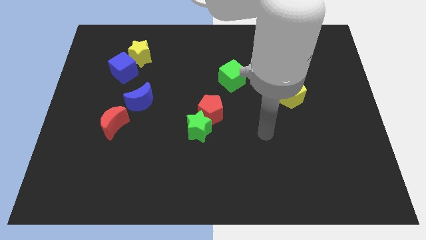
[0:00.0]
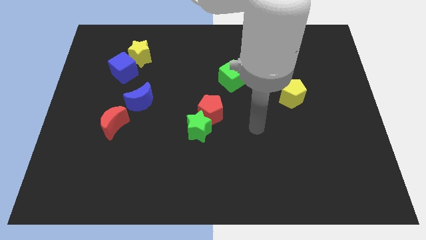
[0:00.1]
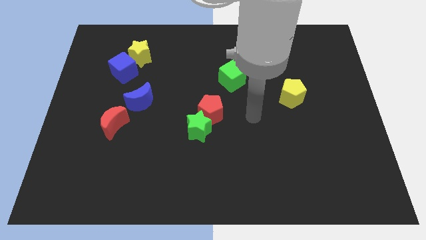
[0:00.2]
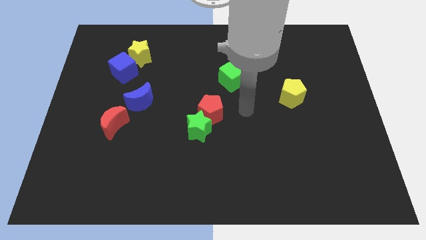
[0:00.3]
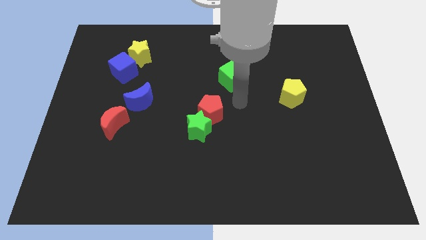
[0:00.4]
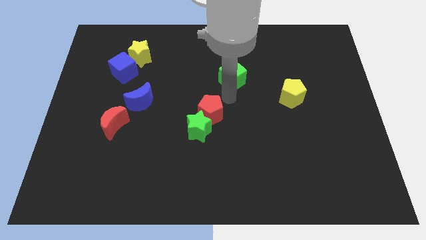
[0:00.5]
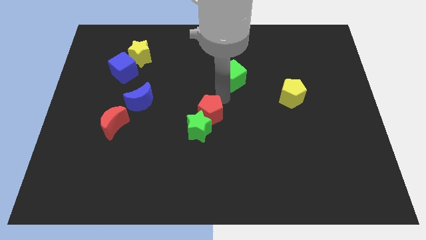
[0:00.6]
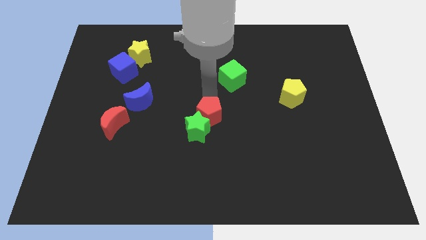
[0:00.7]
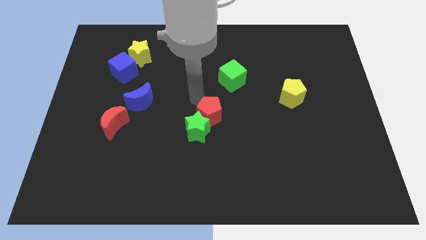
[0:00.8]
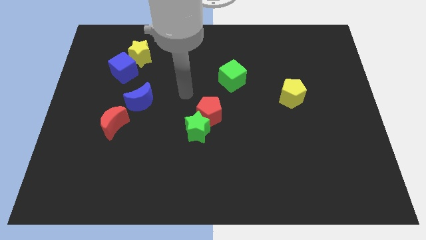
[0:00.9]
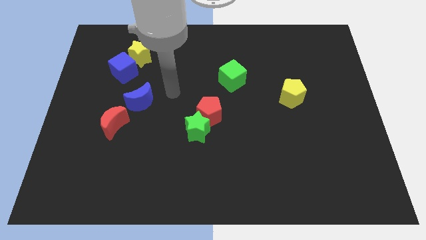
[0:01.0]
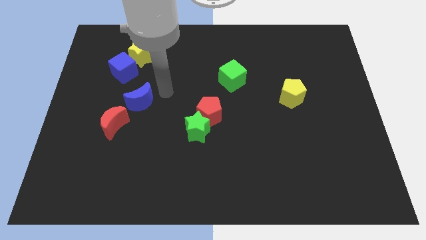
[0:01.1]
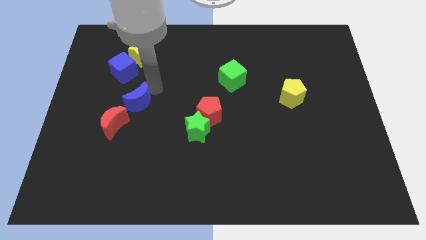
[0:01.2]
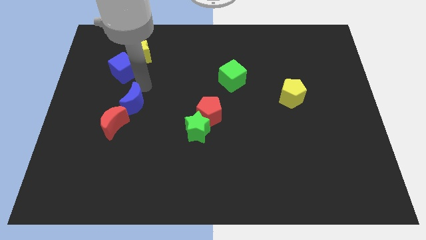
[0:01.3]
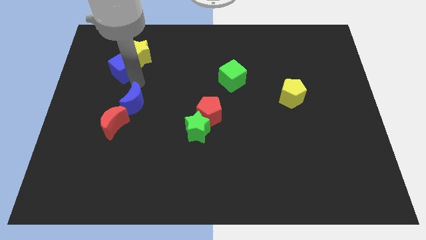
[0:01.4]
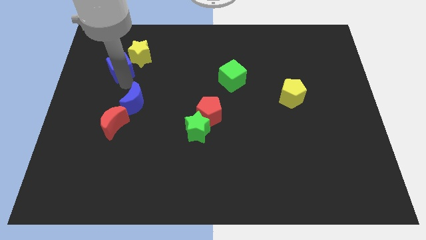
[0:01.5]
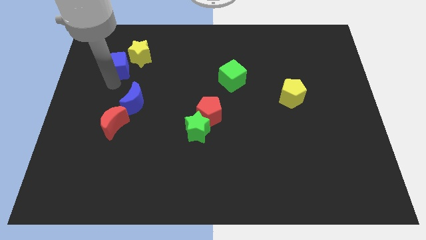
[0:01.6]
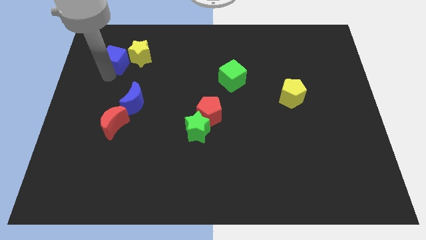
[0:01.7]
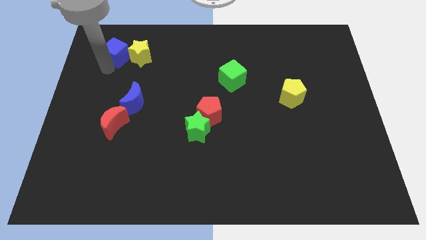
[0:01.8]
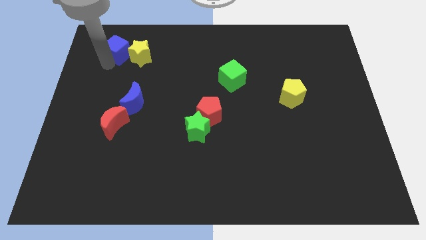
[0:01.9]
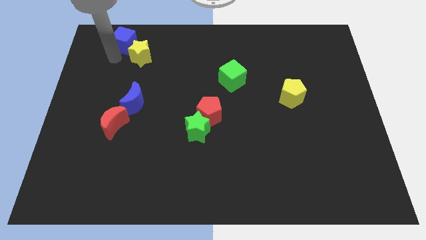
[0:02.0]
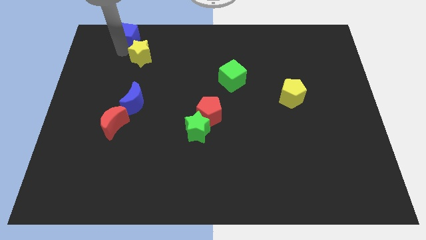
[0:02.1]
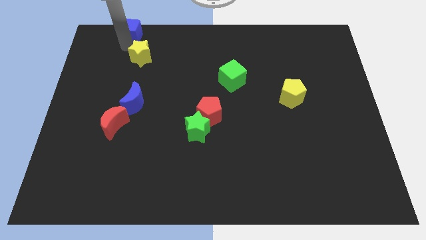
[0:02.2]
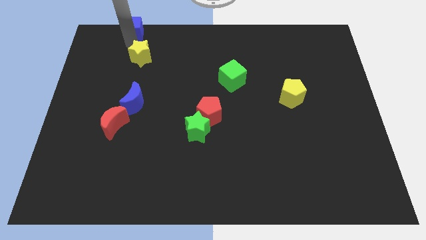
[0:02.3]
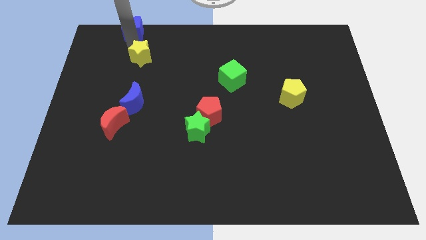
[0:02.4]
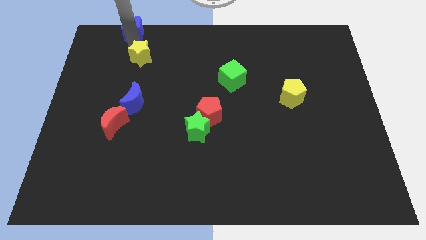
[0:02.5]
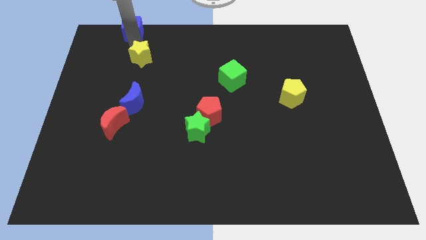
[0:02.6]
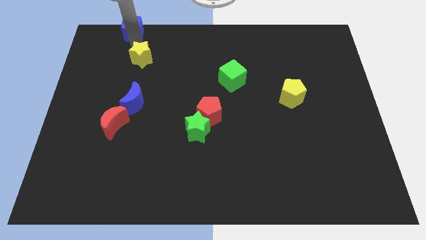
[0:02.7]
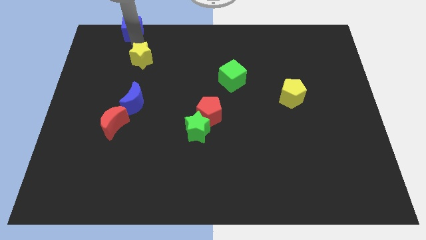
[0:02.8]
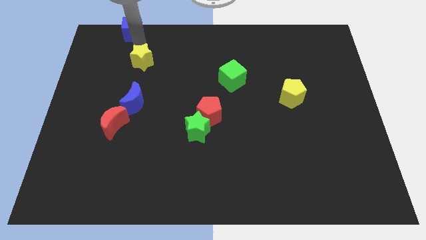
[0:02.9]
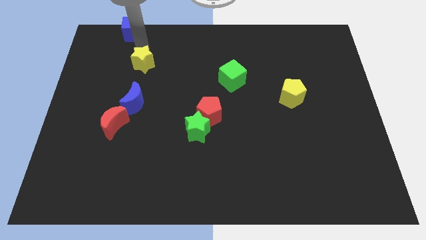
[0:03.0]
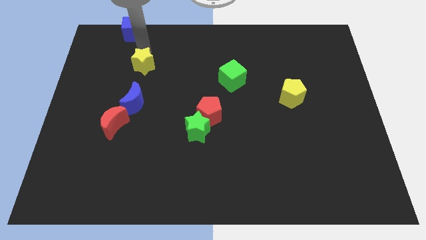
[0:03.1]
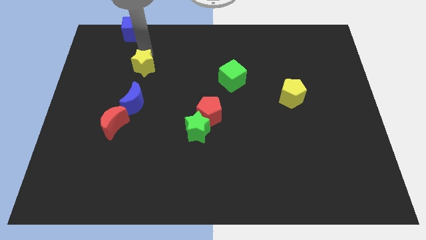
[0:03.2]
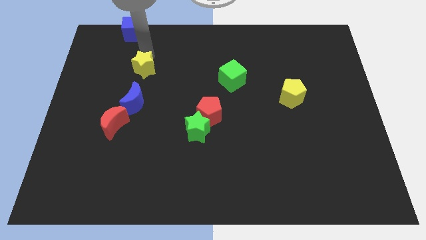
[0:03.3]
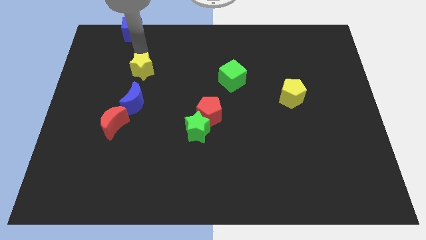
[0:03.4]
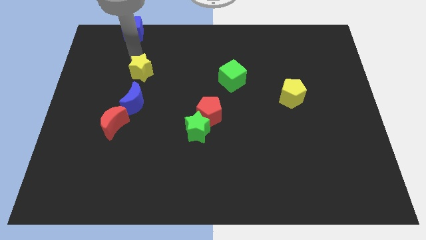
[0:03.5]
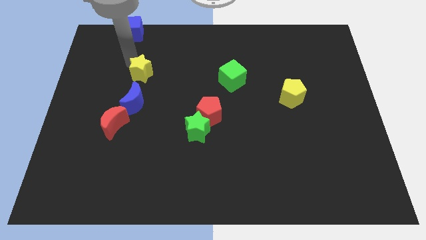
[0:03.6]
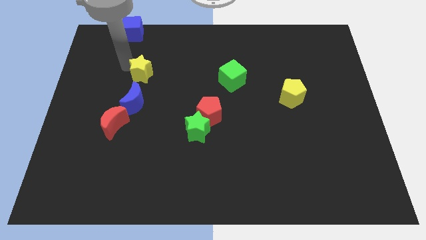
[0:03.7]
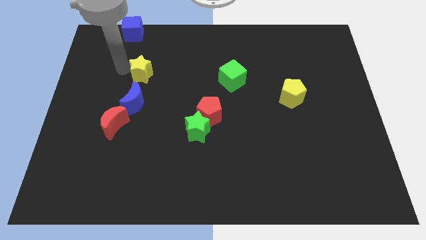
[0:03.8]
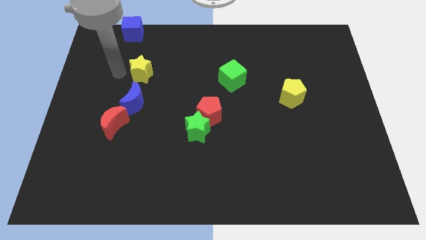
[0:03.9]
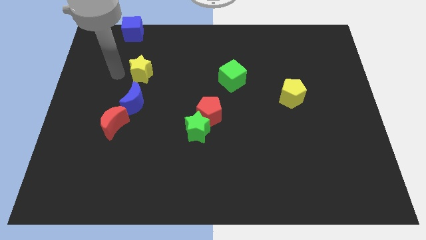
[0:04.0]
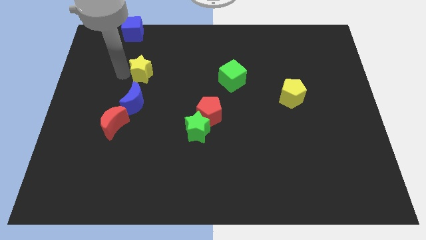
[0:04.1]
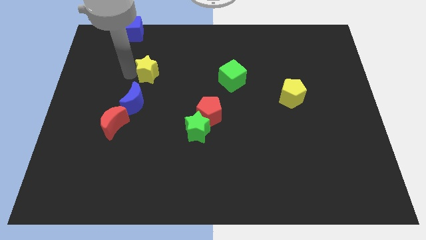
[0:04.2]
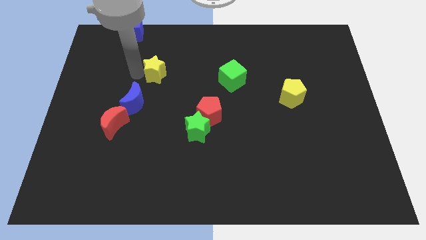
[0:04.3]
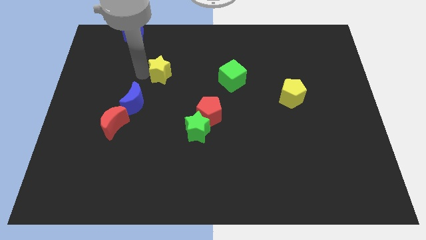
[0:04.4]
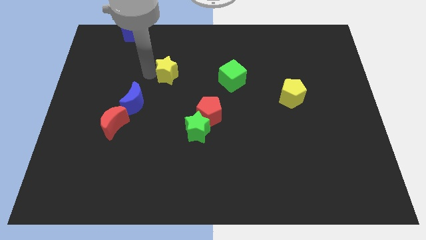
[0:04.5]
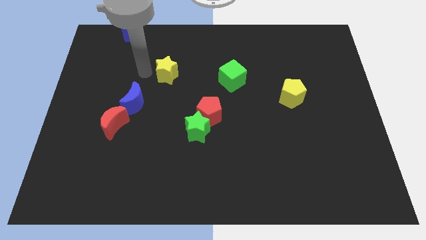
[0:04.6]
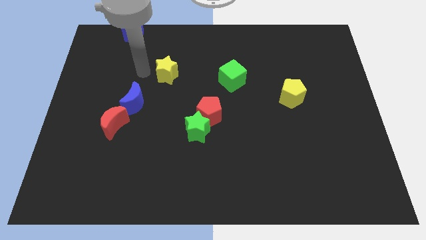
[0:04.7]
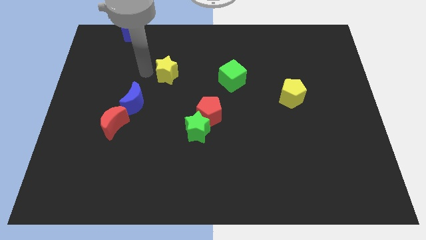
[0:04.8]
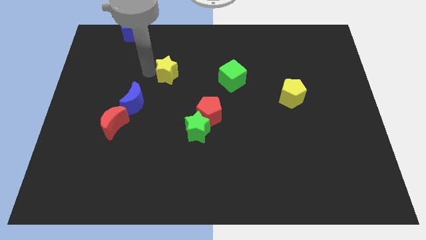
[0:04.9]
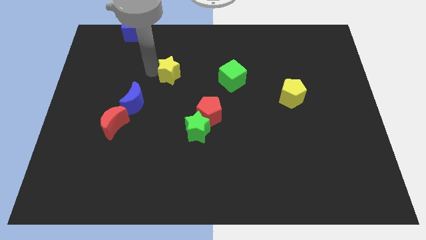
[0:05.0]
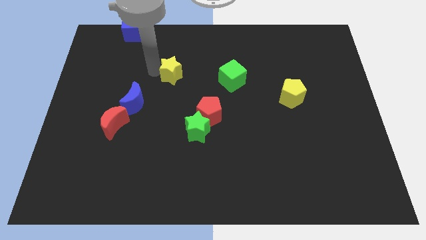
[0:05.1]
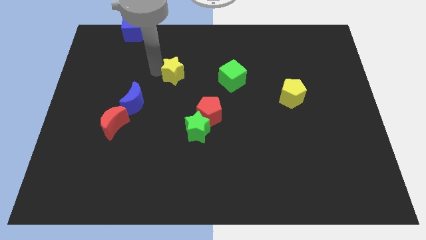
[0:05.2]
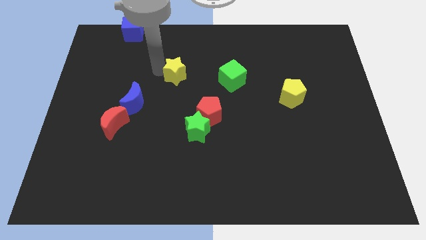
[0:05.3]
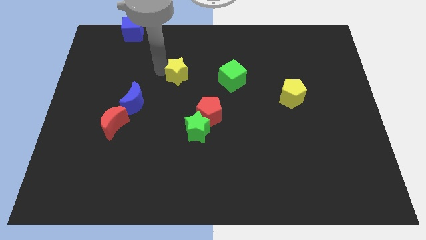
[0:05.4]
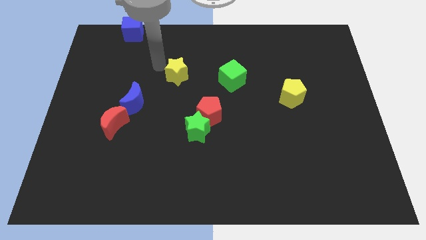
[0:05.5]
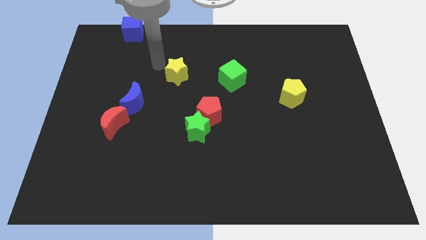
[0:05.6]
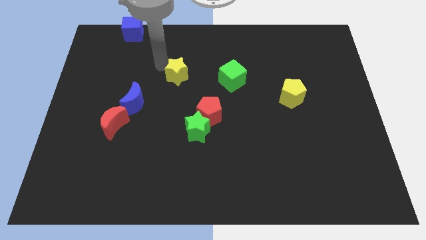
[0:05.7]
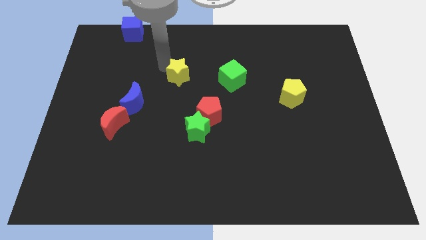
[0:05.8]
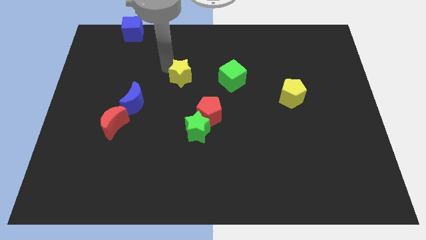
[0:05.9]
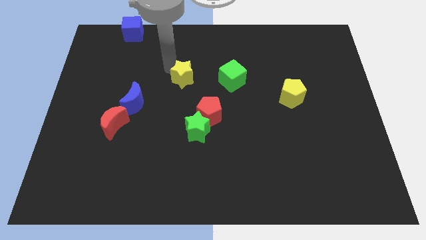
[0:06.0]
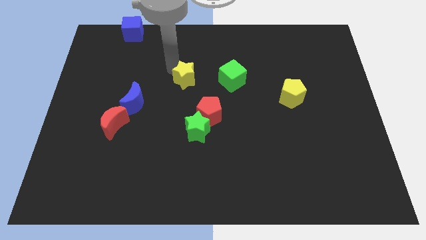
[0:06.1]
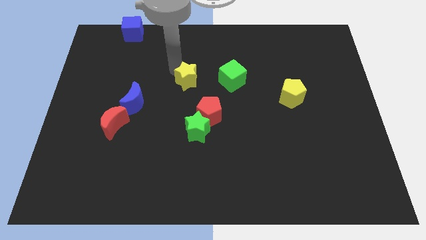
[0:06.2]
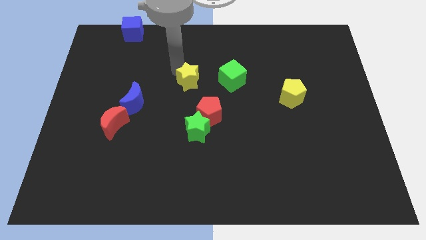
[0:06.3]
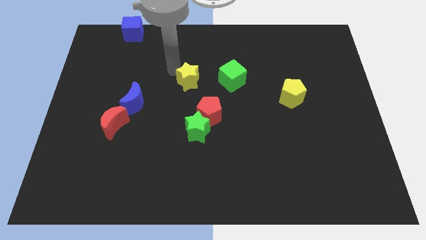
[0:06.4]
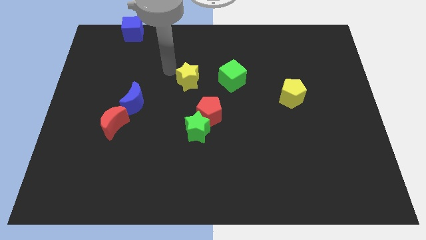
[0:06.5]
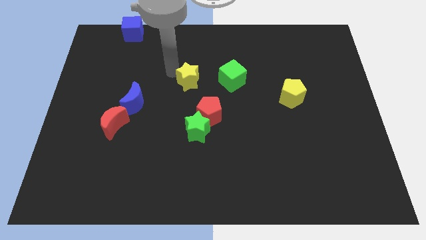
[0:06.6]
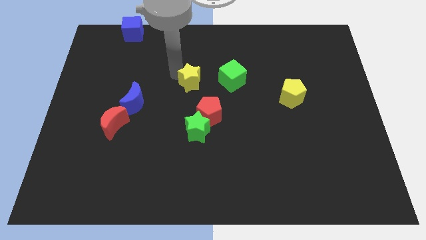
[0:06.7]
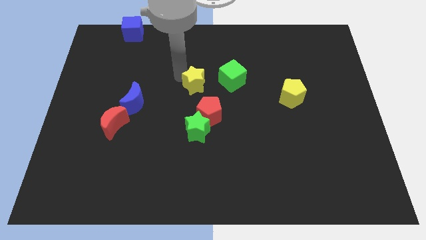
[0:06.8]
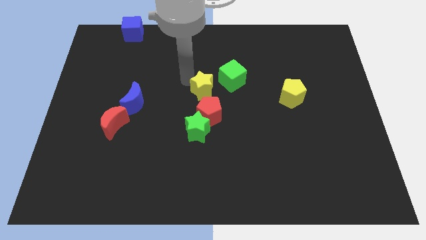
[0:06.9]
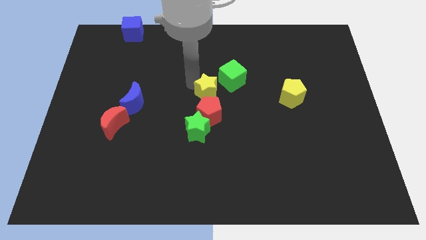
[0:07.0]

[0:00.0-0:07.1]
slide the yellow star downwards and right diagonally

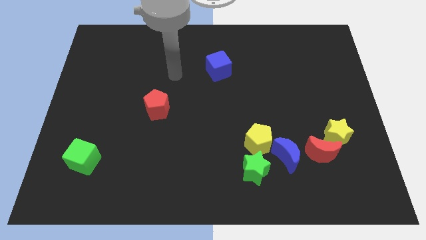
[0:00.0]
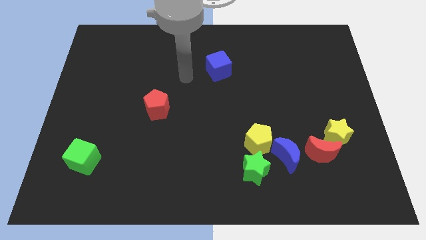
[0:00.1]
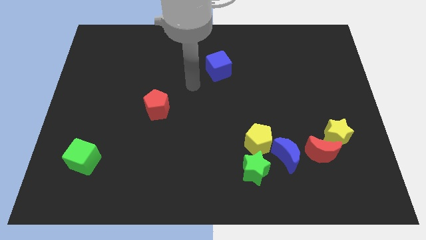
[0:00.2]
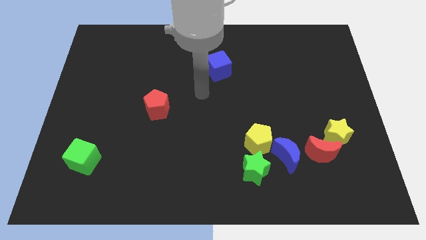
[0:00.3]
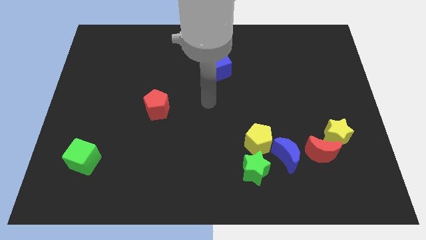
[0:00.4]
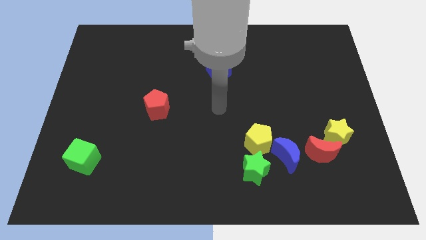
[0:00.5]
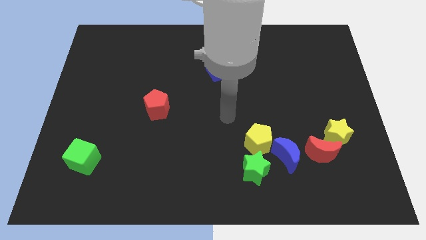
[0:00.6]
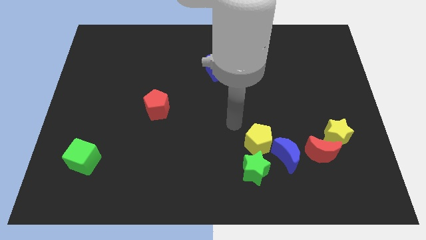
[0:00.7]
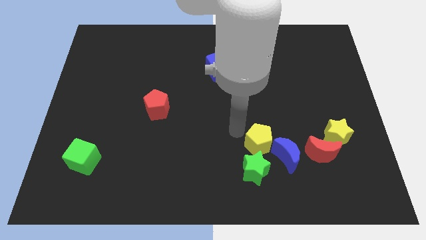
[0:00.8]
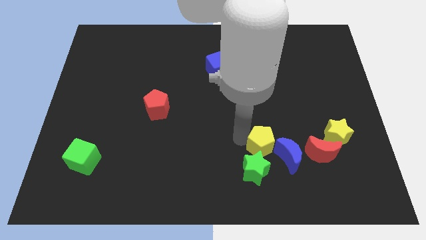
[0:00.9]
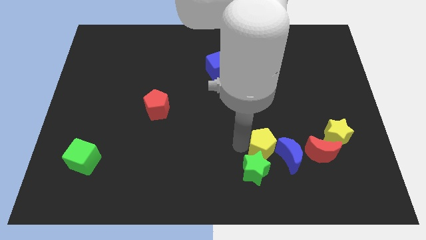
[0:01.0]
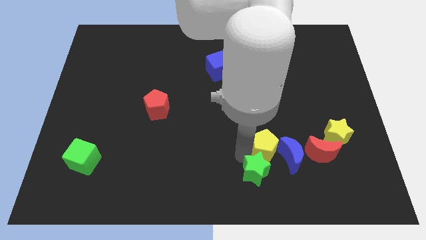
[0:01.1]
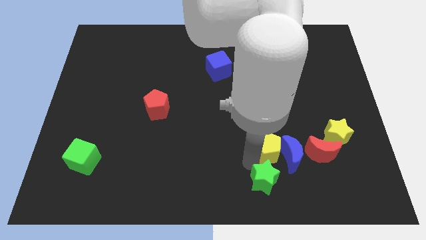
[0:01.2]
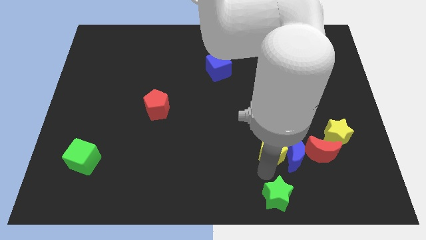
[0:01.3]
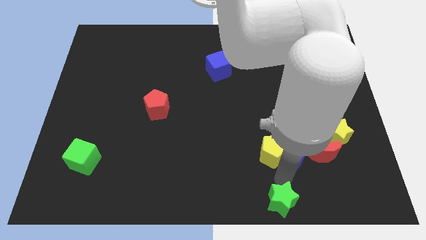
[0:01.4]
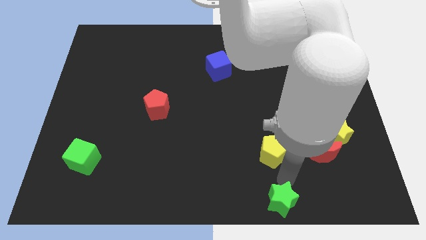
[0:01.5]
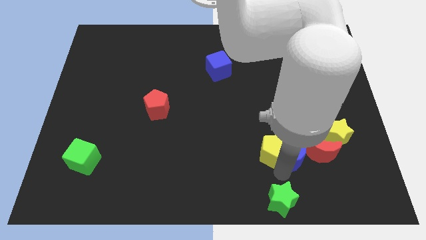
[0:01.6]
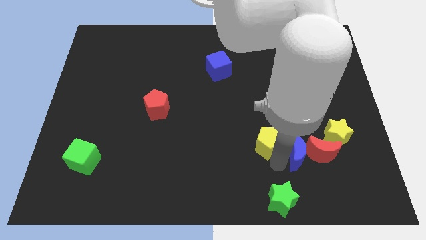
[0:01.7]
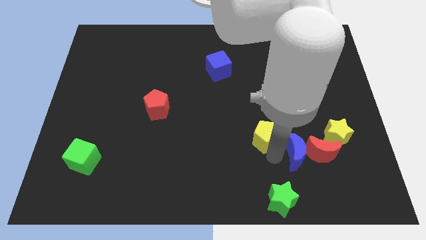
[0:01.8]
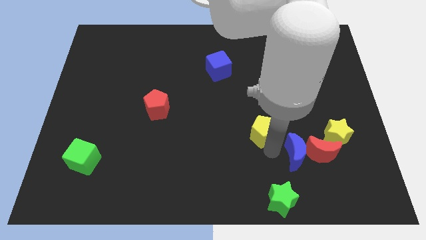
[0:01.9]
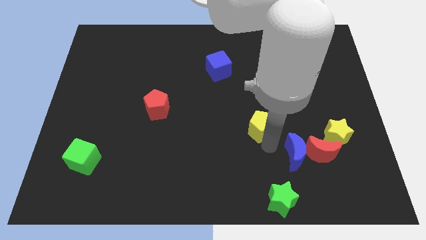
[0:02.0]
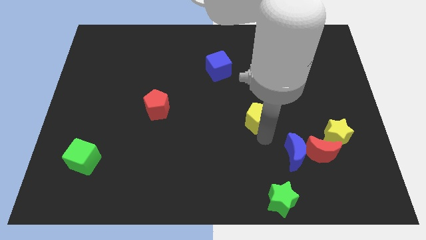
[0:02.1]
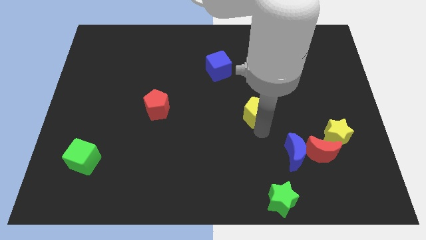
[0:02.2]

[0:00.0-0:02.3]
move the yellow pentagon up a little
